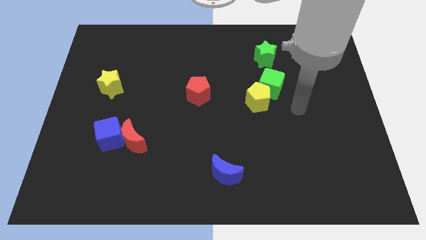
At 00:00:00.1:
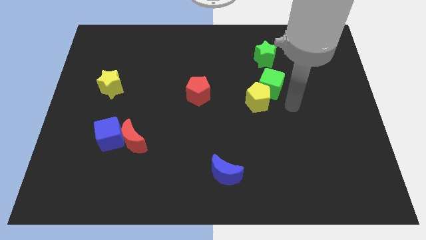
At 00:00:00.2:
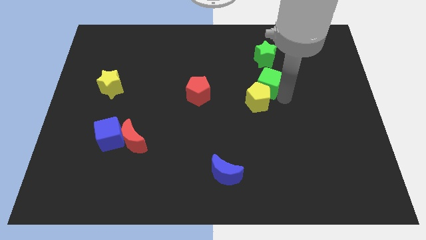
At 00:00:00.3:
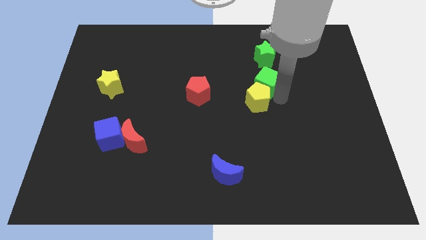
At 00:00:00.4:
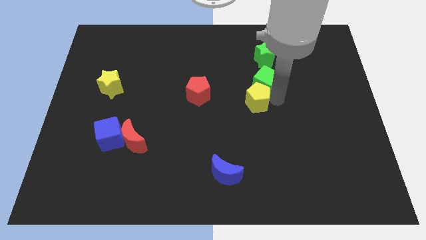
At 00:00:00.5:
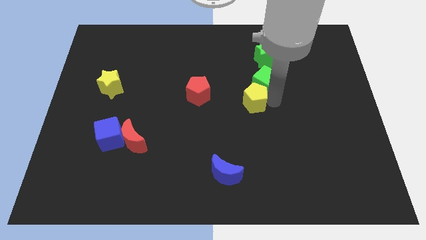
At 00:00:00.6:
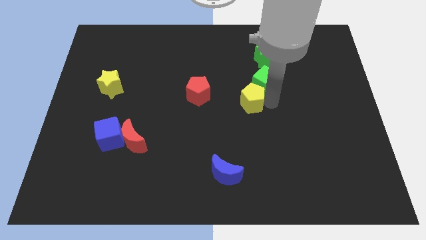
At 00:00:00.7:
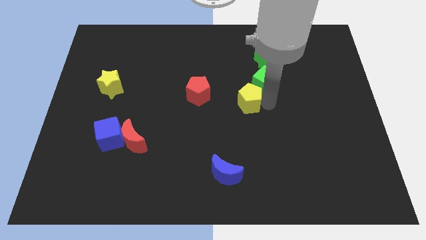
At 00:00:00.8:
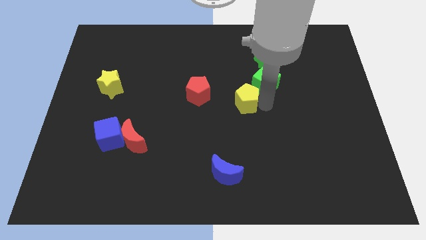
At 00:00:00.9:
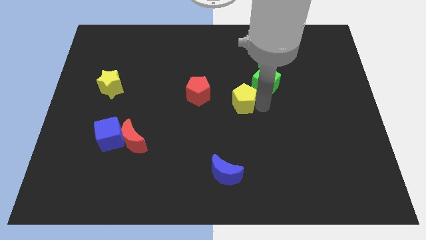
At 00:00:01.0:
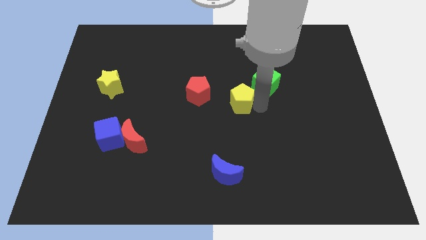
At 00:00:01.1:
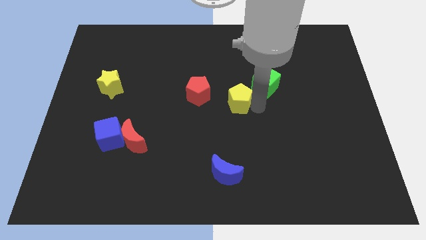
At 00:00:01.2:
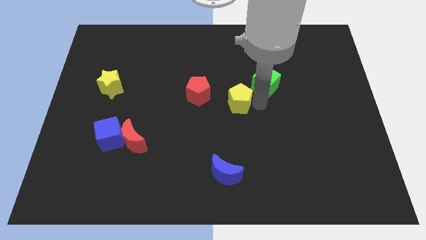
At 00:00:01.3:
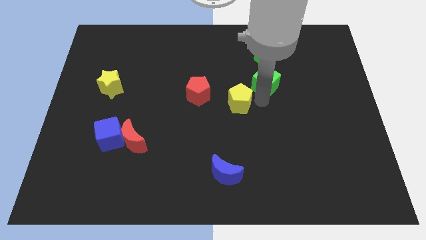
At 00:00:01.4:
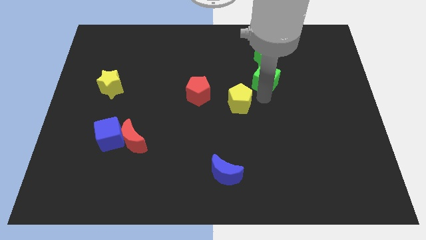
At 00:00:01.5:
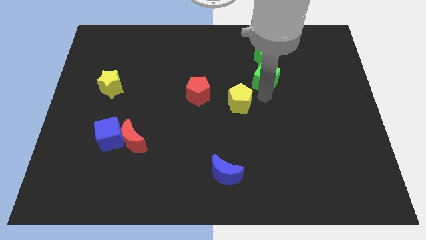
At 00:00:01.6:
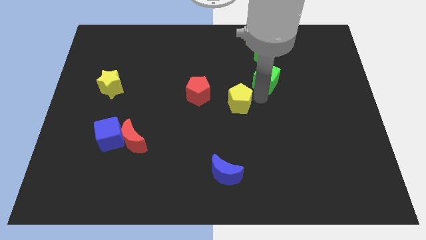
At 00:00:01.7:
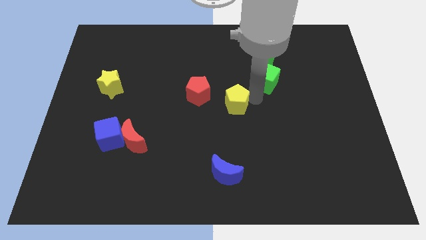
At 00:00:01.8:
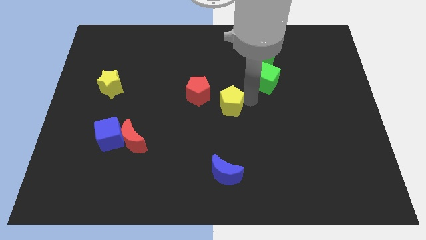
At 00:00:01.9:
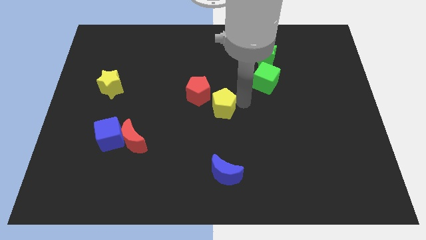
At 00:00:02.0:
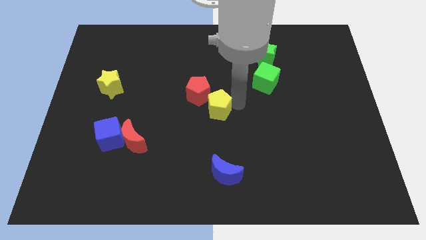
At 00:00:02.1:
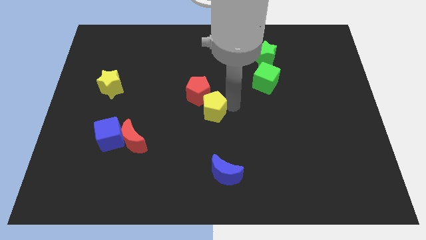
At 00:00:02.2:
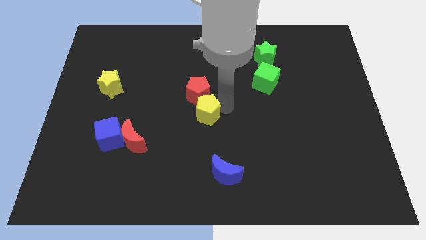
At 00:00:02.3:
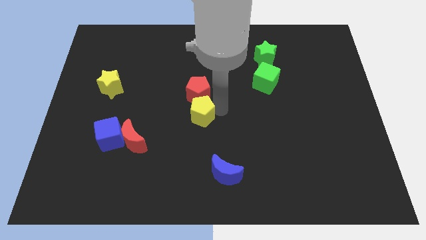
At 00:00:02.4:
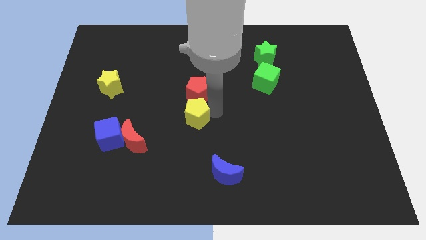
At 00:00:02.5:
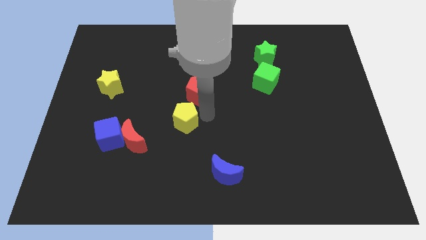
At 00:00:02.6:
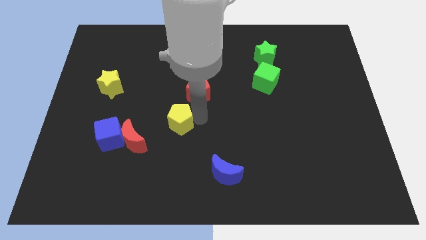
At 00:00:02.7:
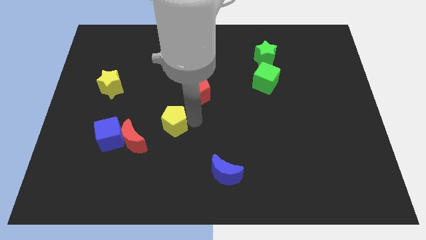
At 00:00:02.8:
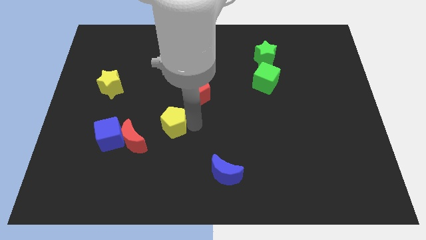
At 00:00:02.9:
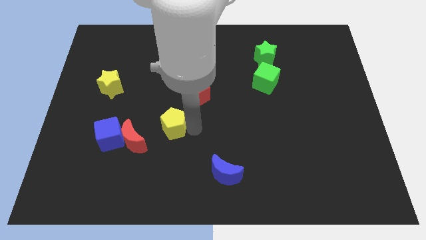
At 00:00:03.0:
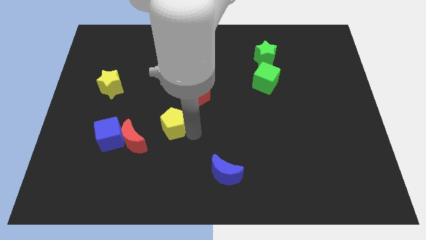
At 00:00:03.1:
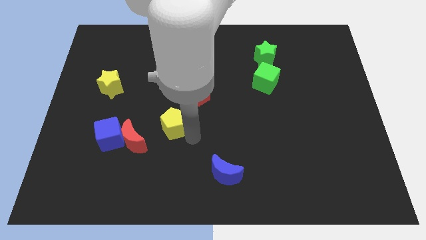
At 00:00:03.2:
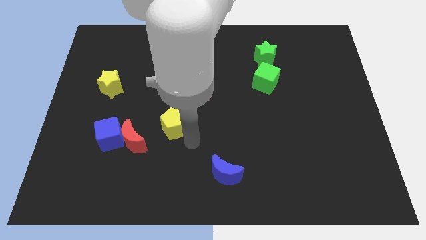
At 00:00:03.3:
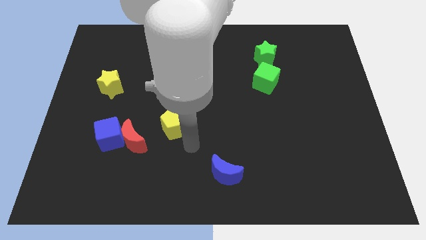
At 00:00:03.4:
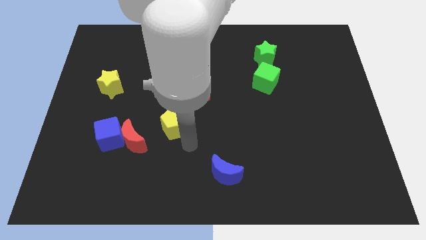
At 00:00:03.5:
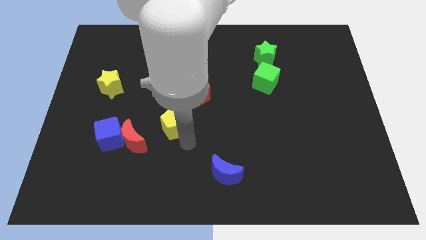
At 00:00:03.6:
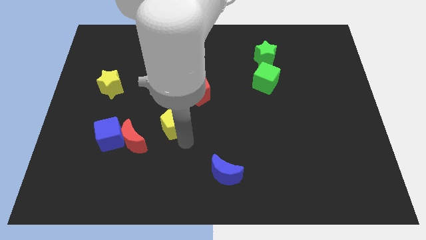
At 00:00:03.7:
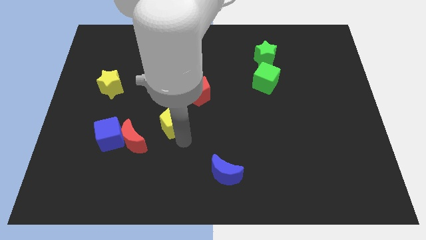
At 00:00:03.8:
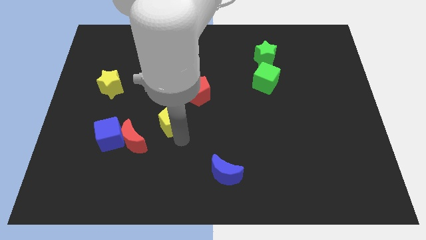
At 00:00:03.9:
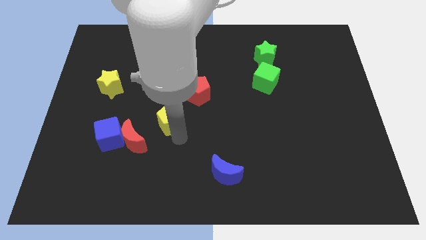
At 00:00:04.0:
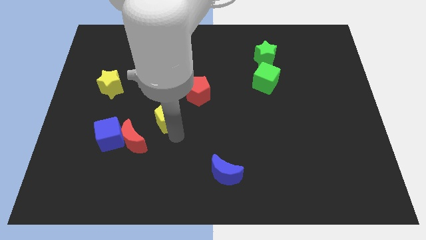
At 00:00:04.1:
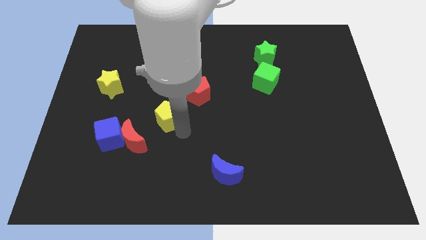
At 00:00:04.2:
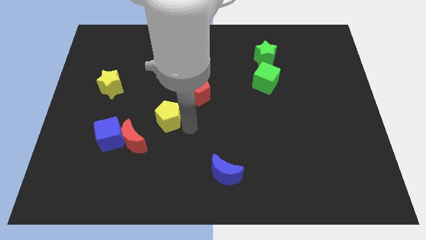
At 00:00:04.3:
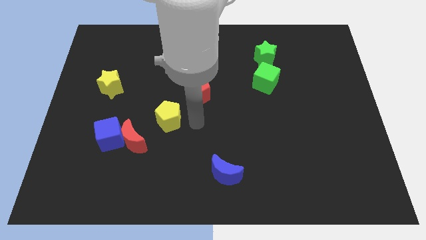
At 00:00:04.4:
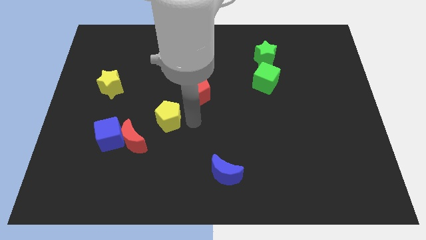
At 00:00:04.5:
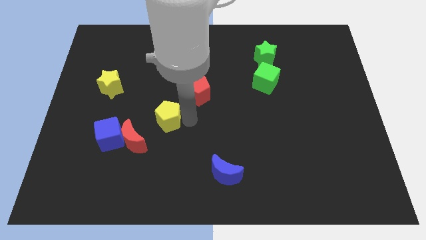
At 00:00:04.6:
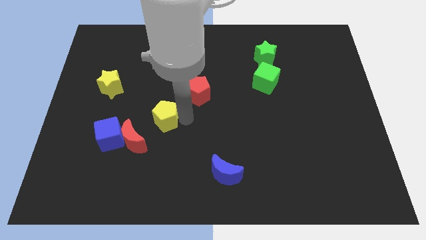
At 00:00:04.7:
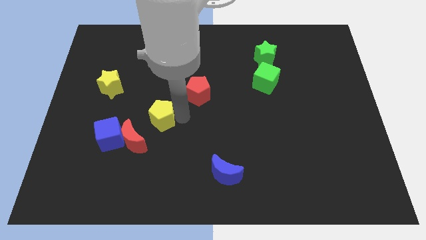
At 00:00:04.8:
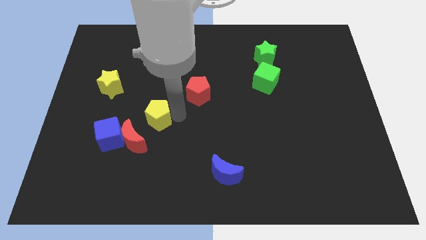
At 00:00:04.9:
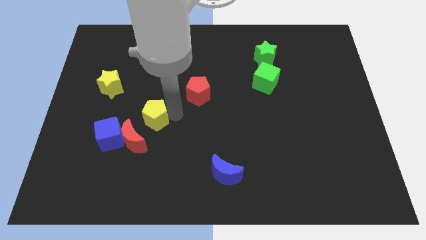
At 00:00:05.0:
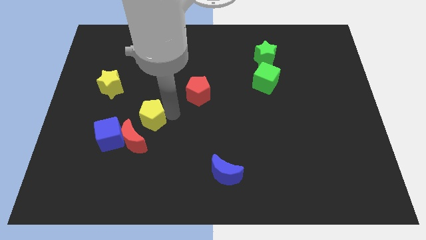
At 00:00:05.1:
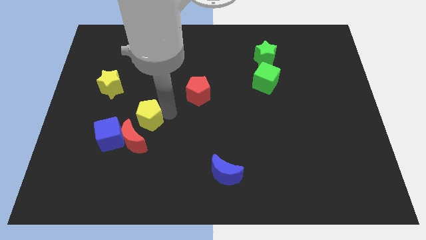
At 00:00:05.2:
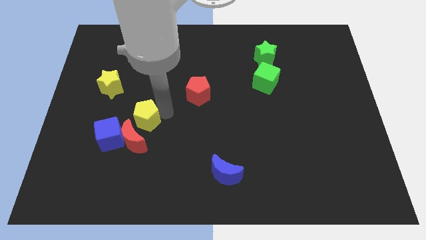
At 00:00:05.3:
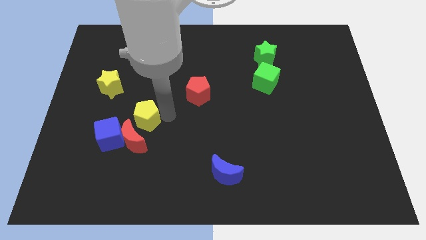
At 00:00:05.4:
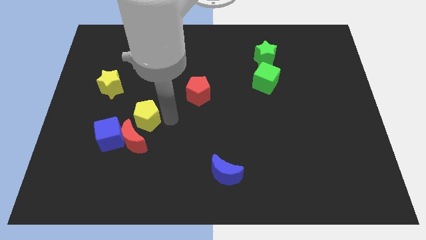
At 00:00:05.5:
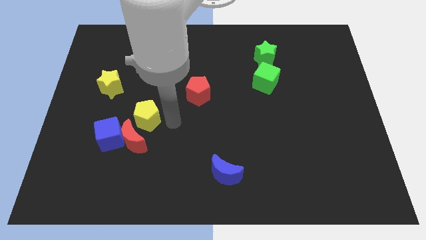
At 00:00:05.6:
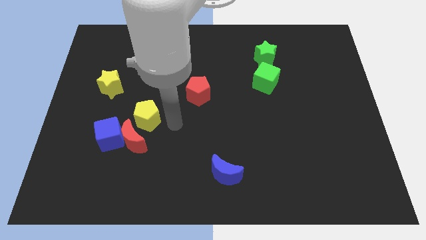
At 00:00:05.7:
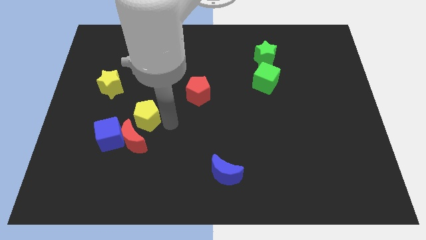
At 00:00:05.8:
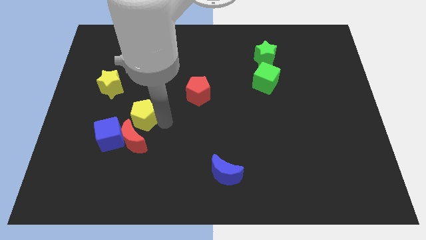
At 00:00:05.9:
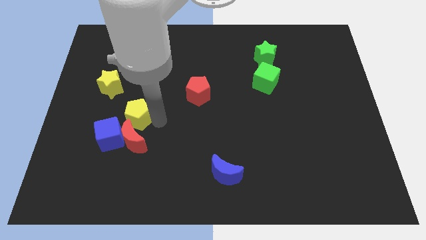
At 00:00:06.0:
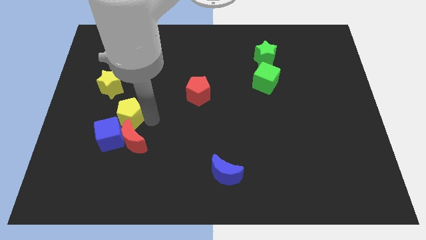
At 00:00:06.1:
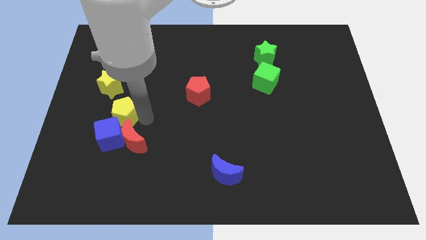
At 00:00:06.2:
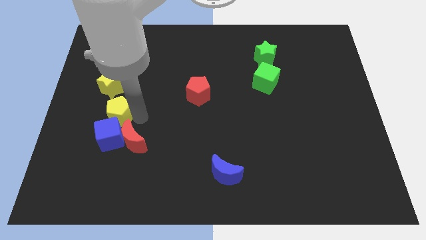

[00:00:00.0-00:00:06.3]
slide the yellow pentagon diagonally up and to the left of the blue cube
